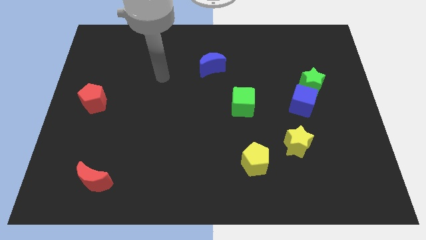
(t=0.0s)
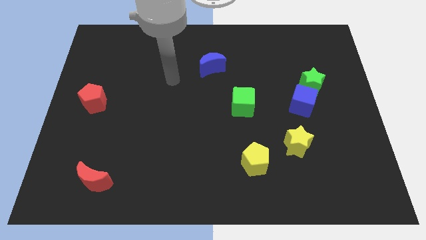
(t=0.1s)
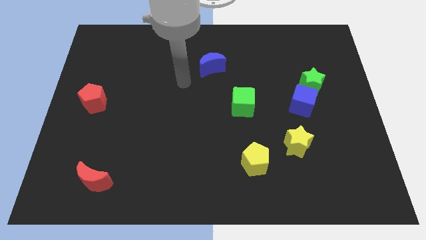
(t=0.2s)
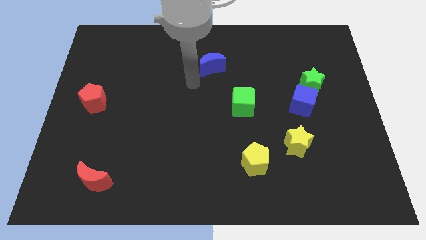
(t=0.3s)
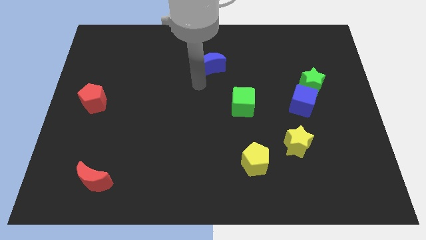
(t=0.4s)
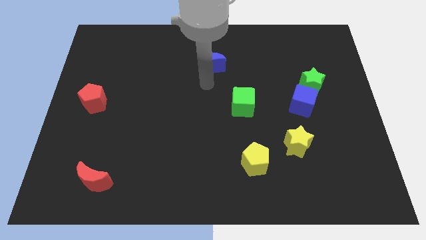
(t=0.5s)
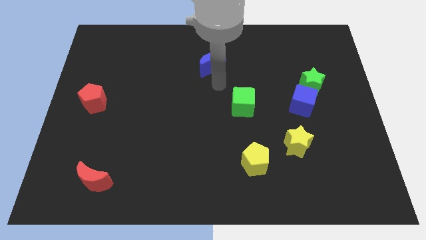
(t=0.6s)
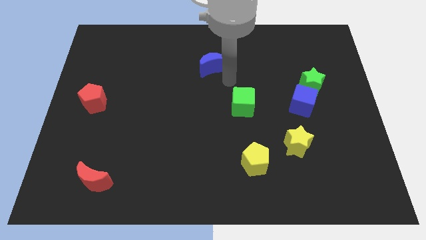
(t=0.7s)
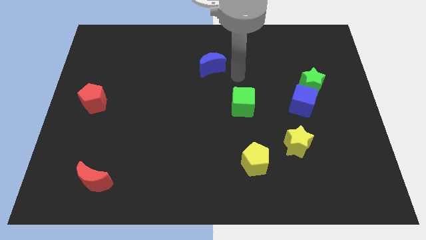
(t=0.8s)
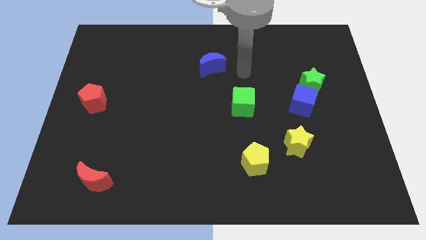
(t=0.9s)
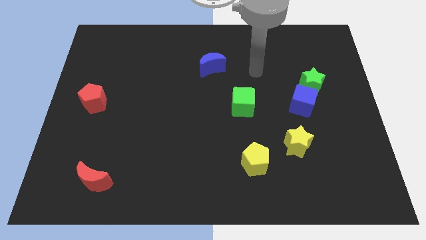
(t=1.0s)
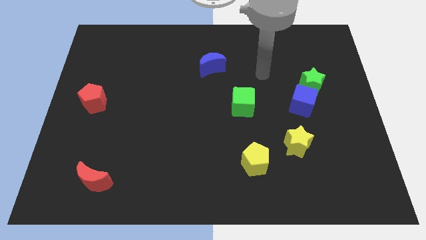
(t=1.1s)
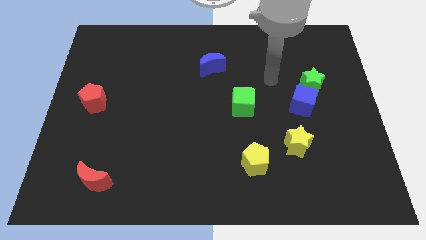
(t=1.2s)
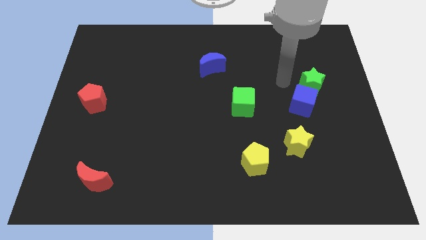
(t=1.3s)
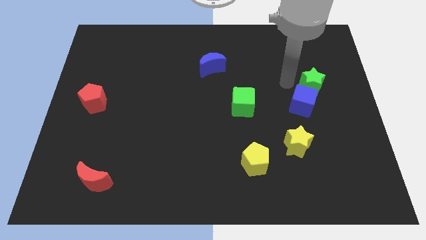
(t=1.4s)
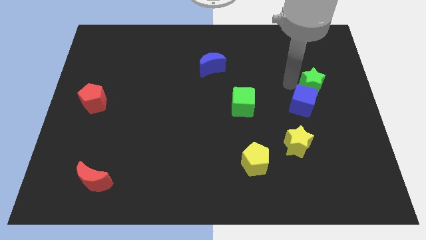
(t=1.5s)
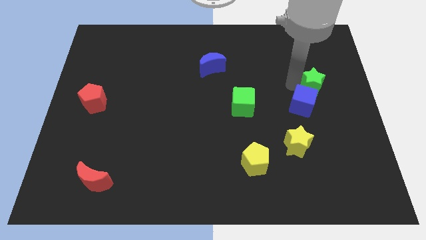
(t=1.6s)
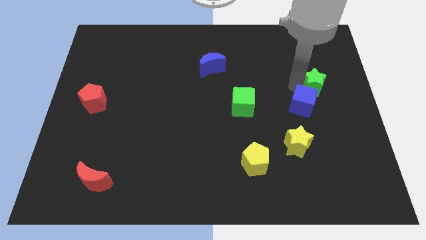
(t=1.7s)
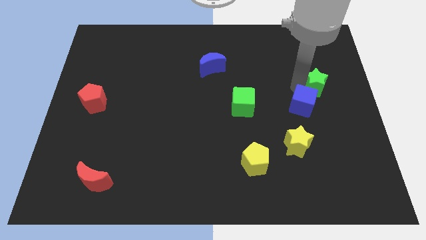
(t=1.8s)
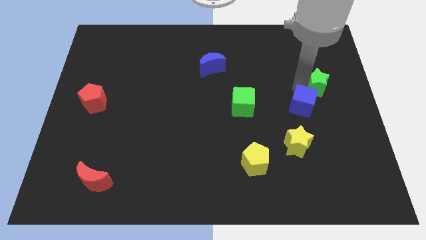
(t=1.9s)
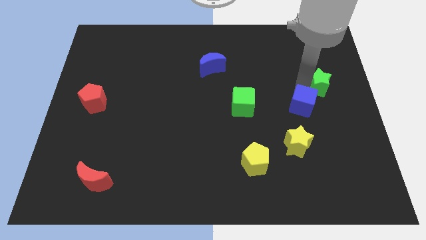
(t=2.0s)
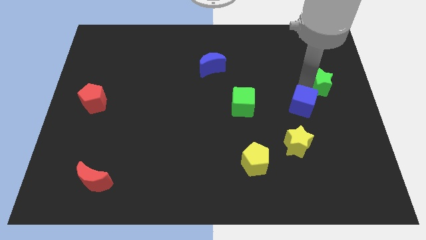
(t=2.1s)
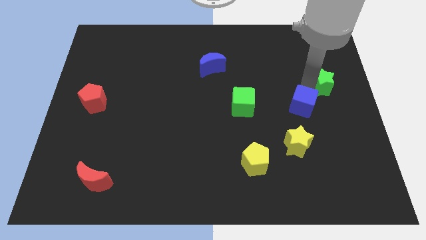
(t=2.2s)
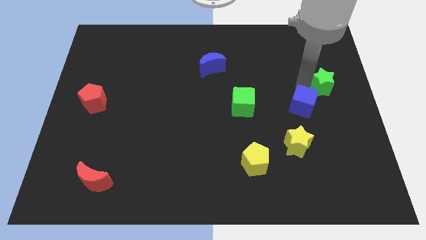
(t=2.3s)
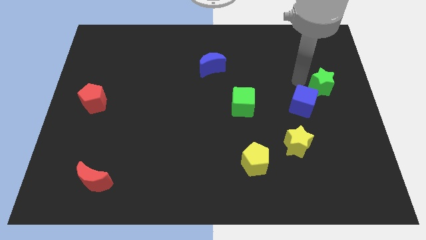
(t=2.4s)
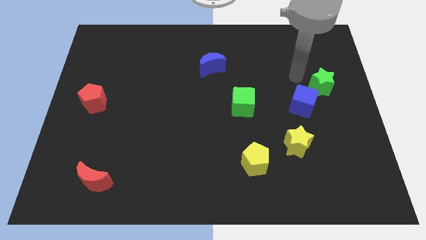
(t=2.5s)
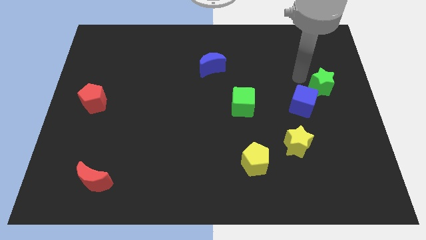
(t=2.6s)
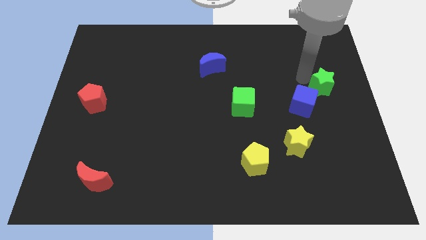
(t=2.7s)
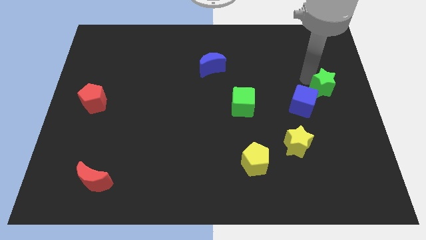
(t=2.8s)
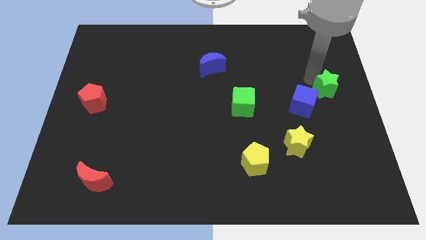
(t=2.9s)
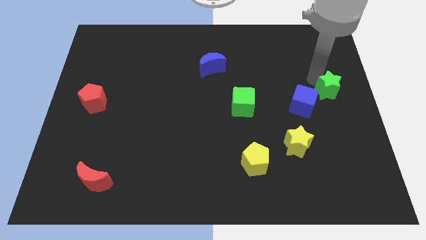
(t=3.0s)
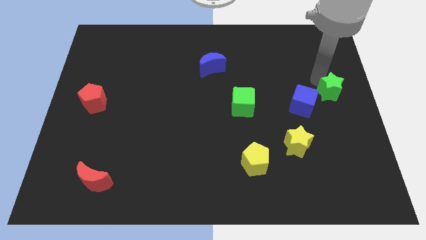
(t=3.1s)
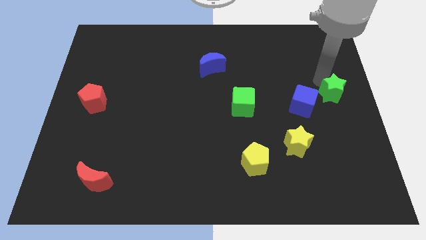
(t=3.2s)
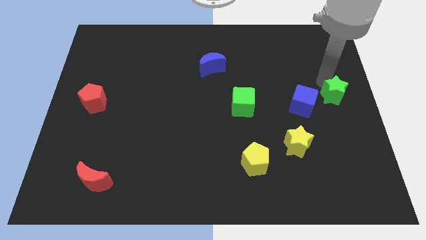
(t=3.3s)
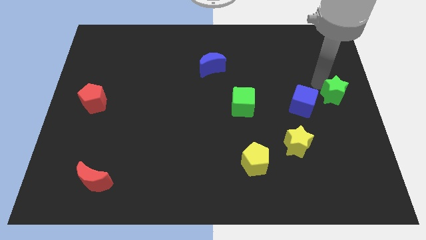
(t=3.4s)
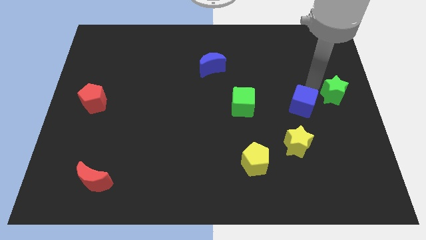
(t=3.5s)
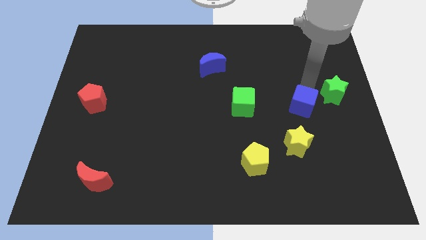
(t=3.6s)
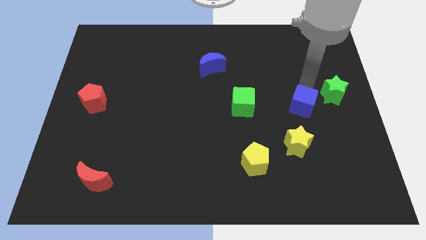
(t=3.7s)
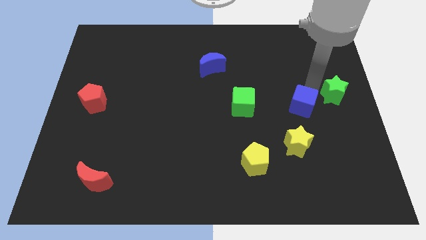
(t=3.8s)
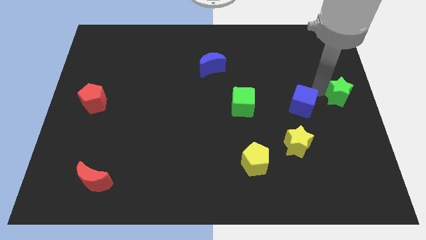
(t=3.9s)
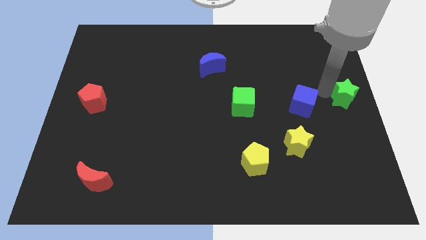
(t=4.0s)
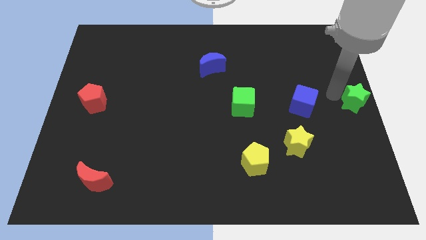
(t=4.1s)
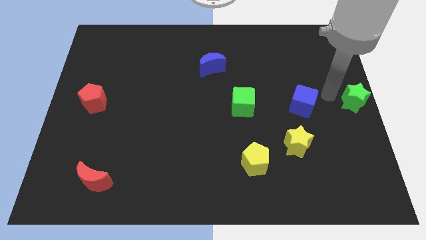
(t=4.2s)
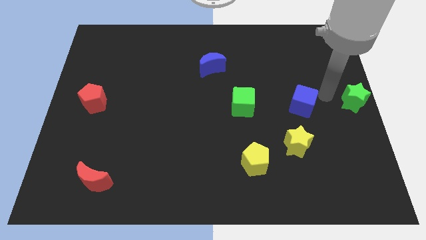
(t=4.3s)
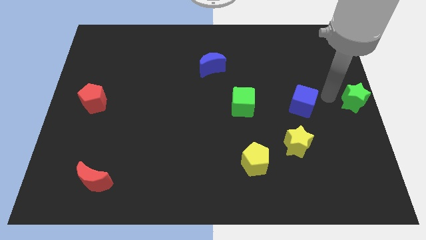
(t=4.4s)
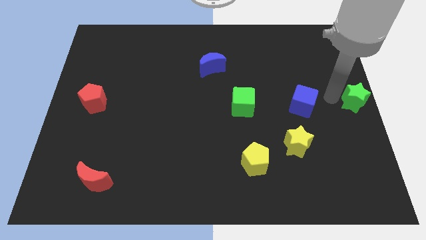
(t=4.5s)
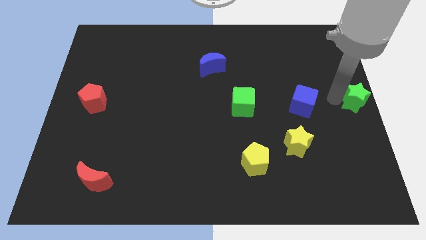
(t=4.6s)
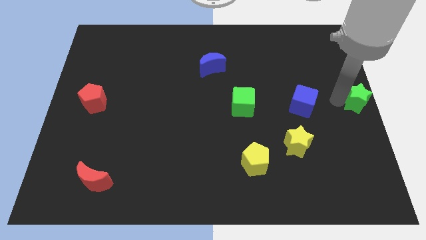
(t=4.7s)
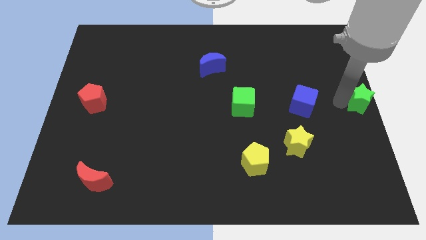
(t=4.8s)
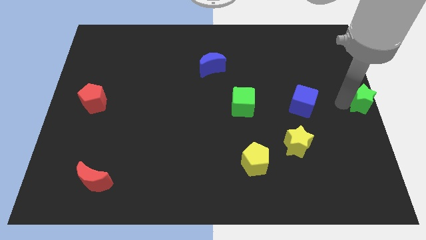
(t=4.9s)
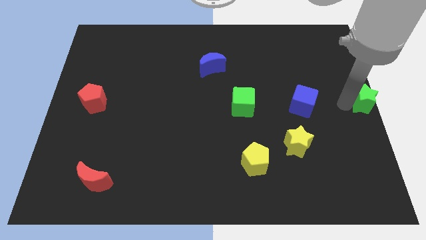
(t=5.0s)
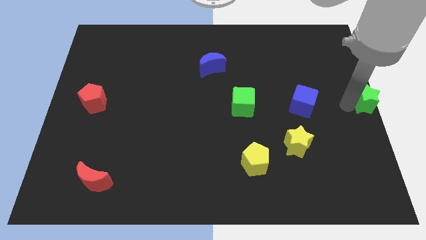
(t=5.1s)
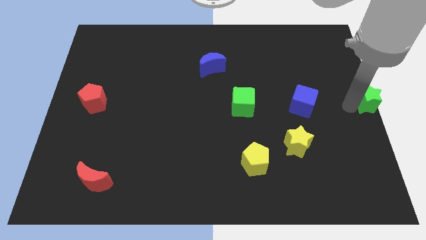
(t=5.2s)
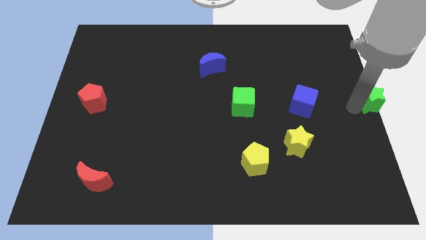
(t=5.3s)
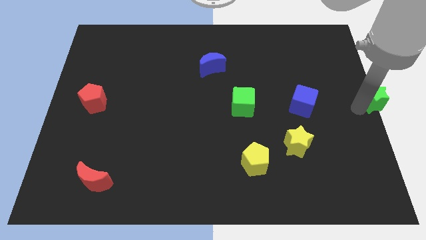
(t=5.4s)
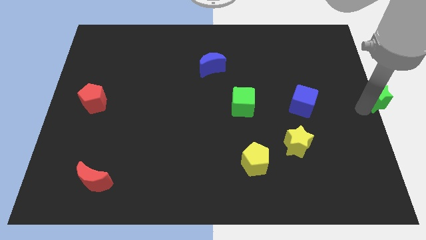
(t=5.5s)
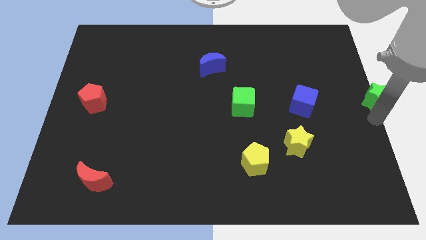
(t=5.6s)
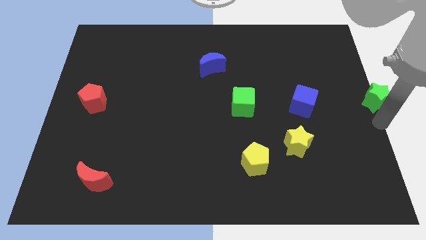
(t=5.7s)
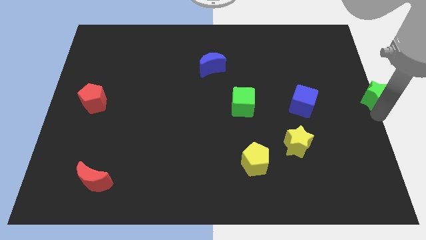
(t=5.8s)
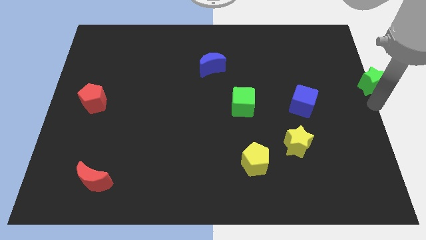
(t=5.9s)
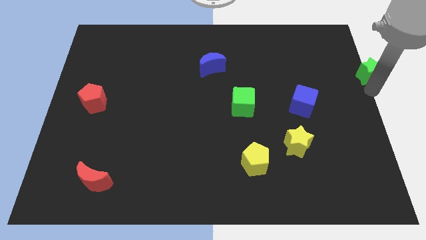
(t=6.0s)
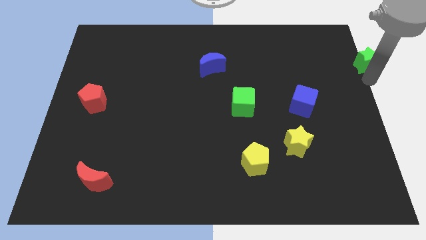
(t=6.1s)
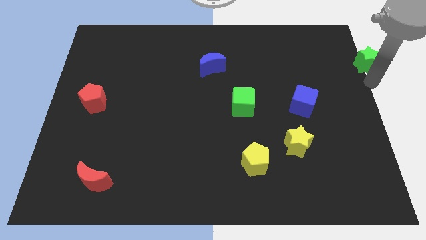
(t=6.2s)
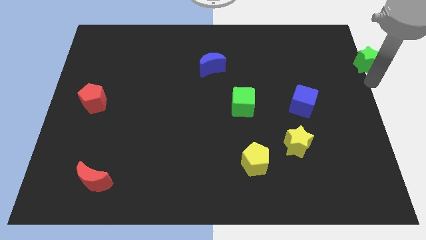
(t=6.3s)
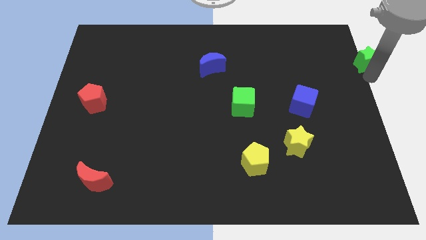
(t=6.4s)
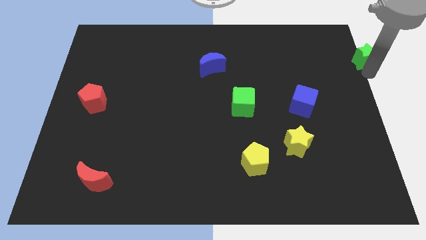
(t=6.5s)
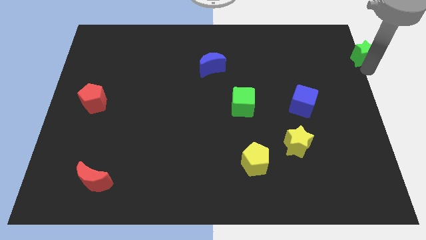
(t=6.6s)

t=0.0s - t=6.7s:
push the green star to the top right corner
